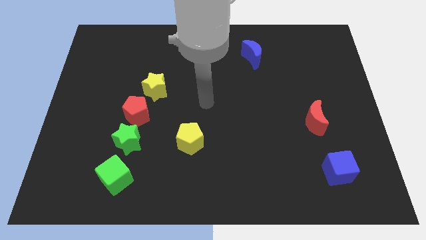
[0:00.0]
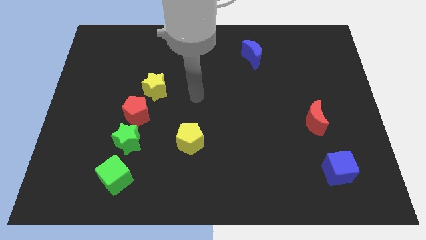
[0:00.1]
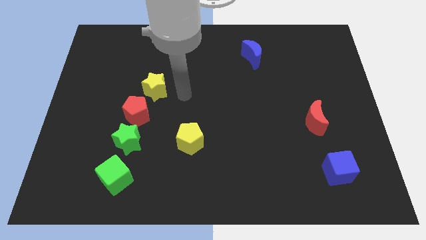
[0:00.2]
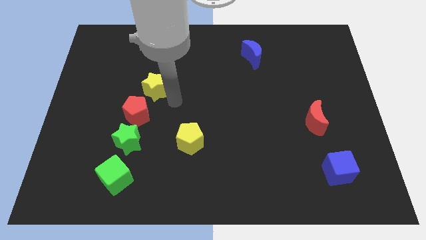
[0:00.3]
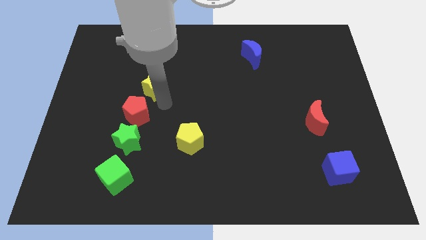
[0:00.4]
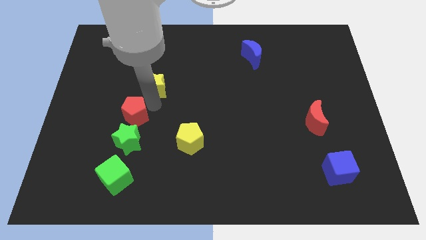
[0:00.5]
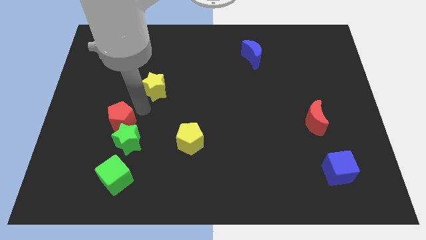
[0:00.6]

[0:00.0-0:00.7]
pull the yellow star apart from the red pentagon

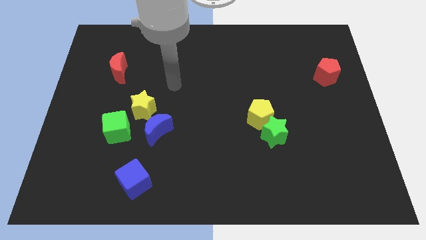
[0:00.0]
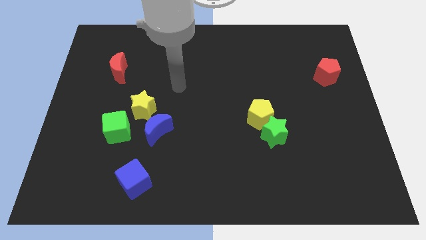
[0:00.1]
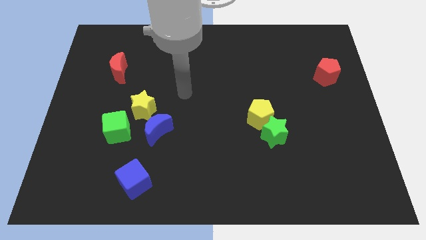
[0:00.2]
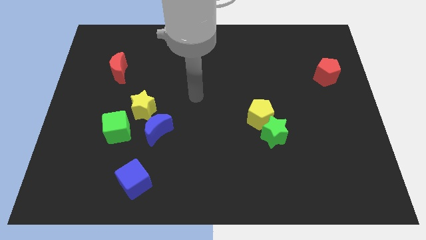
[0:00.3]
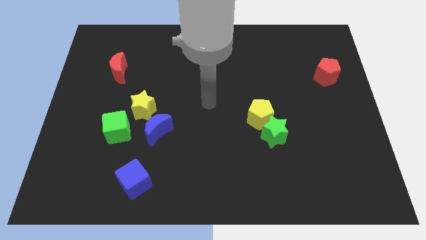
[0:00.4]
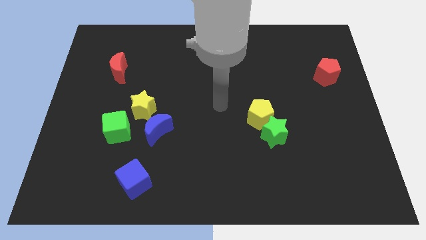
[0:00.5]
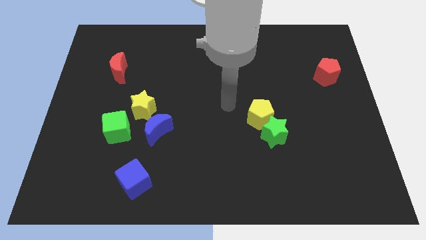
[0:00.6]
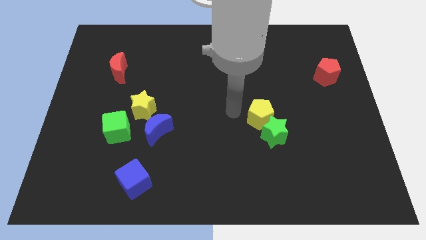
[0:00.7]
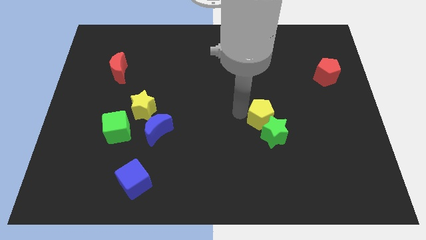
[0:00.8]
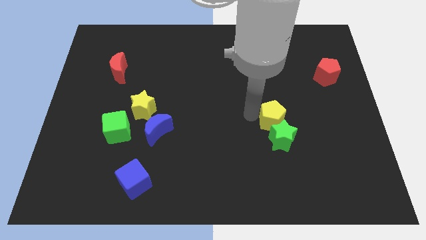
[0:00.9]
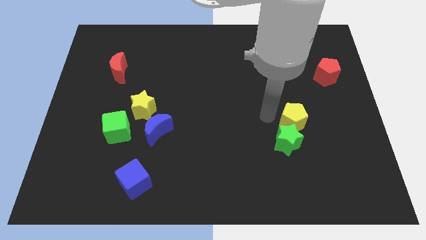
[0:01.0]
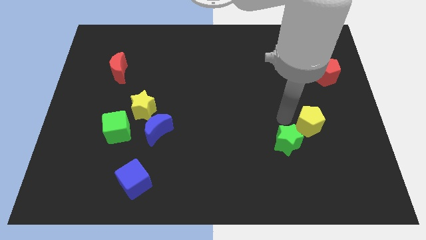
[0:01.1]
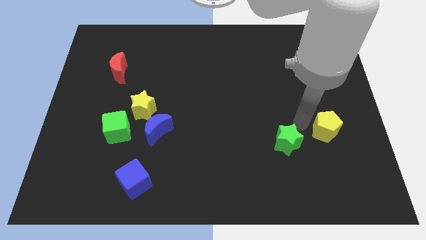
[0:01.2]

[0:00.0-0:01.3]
pull the green star apart from the yellow pentagon

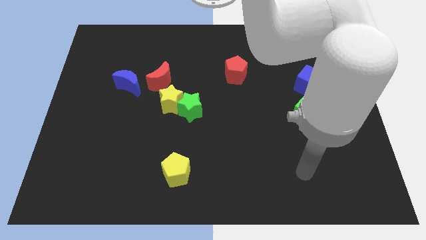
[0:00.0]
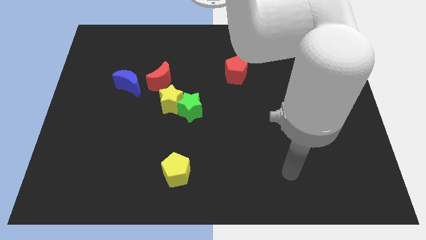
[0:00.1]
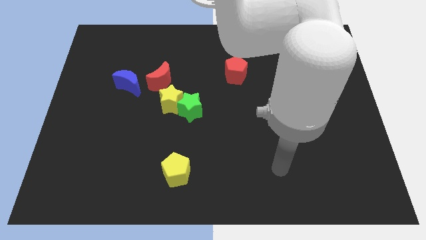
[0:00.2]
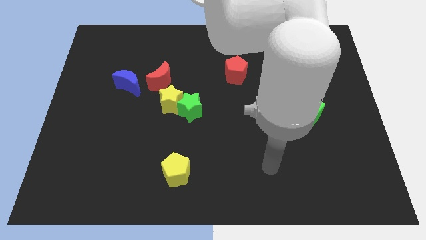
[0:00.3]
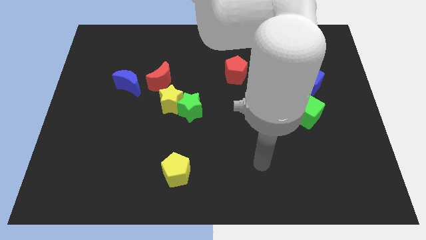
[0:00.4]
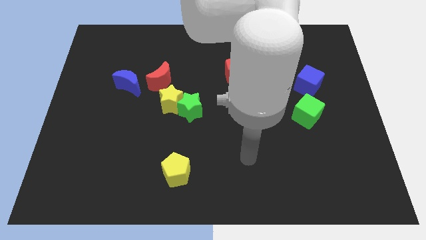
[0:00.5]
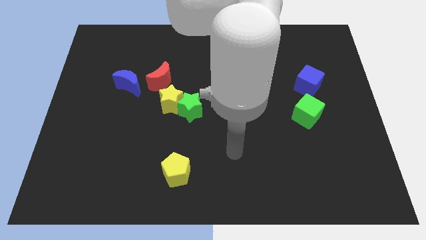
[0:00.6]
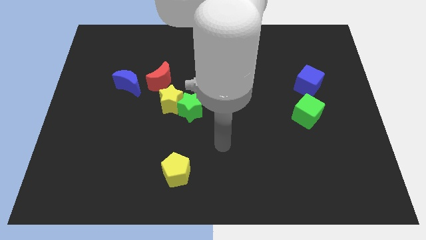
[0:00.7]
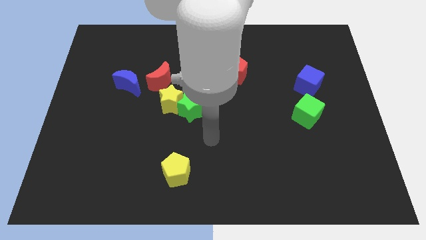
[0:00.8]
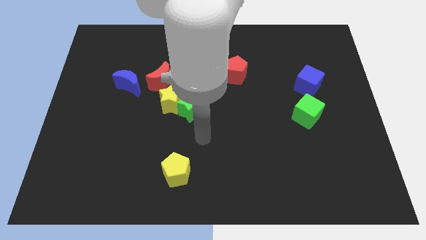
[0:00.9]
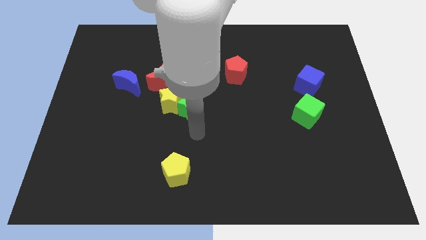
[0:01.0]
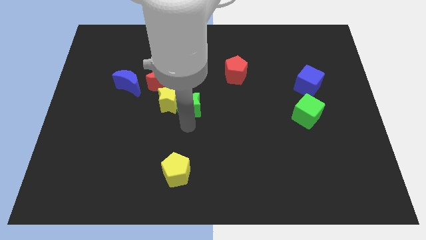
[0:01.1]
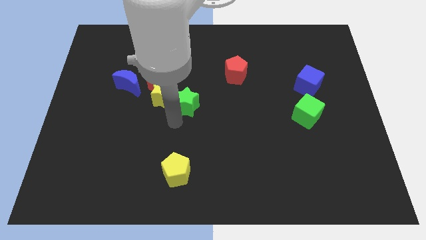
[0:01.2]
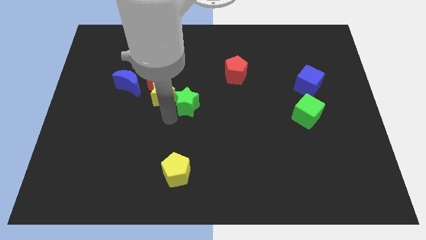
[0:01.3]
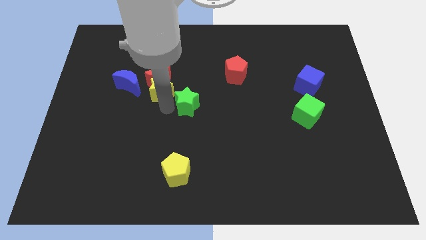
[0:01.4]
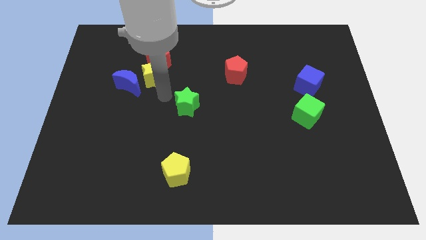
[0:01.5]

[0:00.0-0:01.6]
separate the green star from the yellow star

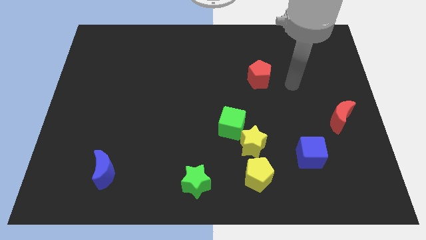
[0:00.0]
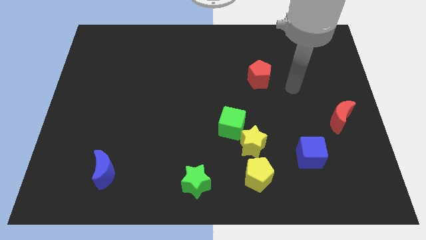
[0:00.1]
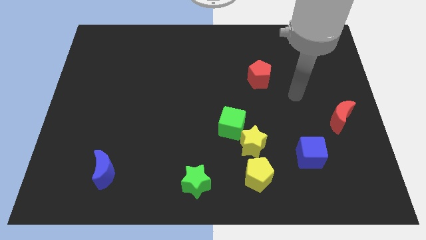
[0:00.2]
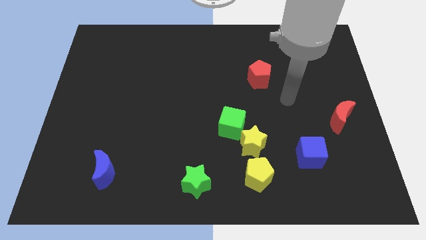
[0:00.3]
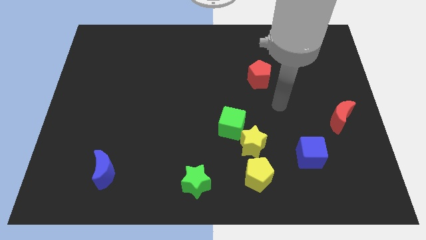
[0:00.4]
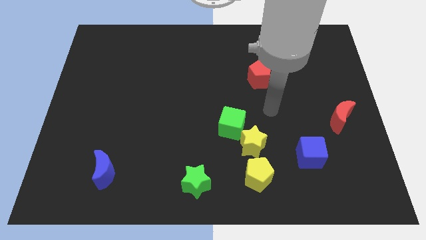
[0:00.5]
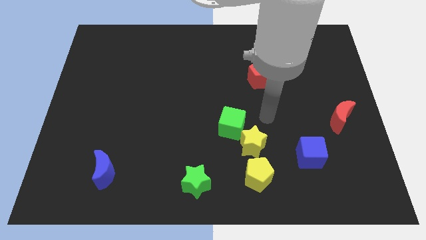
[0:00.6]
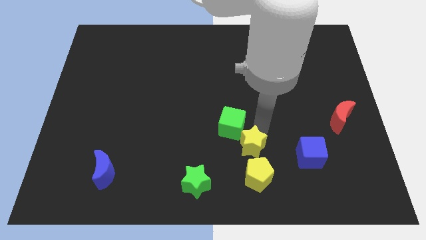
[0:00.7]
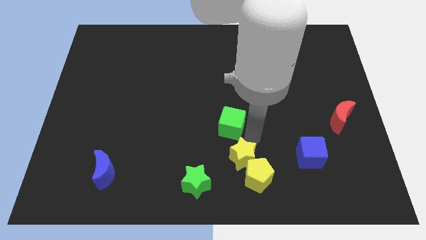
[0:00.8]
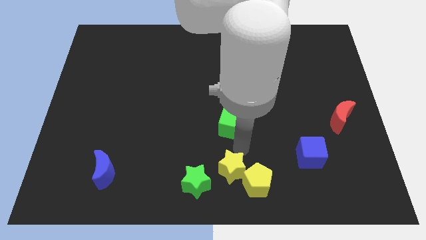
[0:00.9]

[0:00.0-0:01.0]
move the green cube away from the yellow star

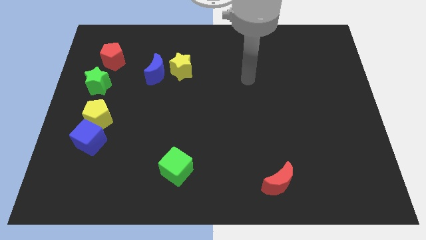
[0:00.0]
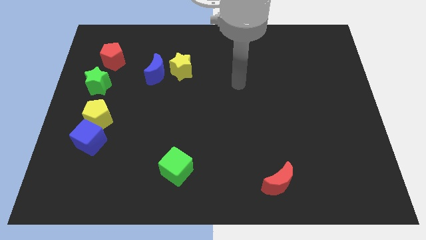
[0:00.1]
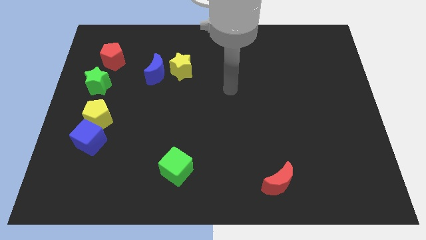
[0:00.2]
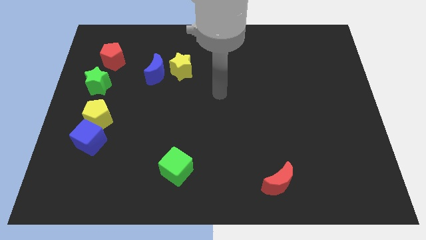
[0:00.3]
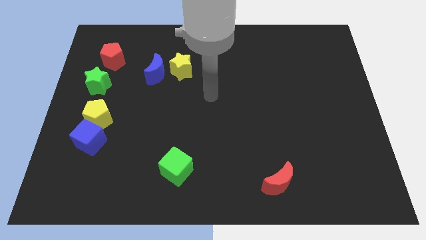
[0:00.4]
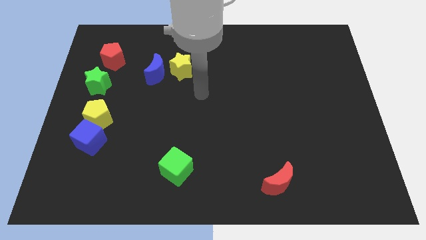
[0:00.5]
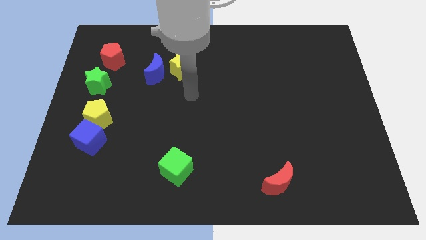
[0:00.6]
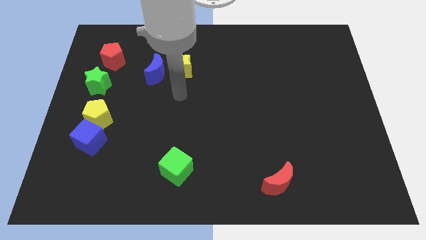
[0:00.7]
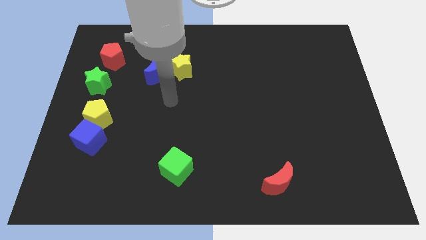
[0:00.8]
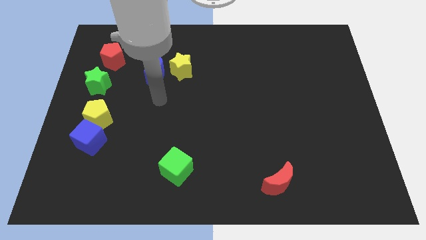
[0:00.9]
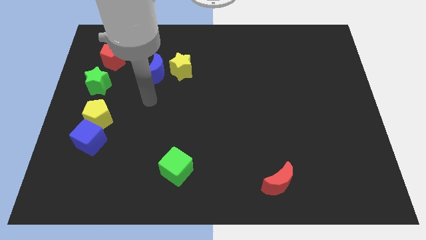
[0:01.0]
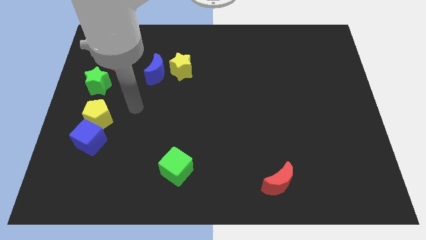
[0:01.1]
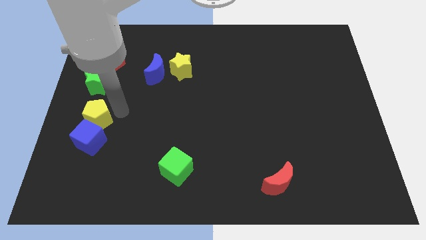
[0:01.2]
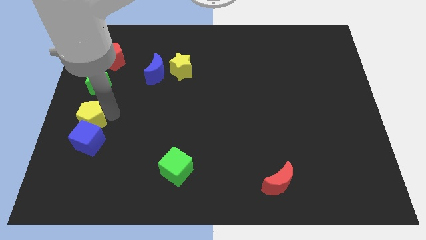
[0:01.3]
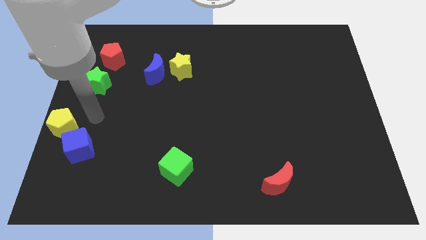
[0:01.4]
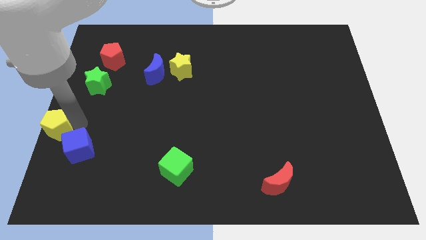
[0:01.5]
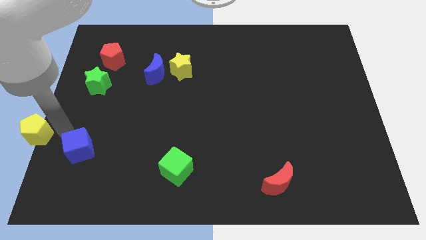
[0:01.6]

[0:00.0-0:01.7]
pull the blue cube apart from the yellow pentagon

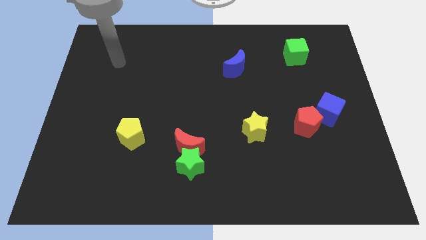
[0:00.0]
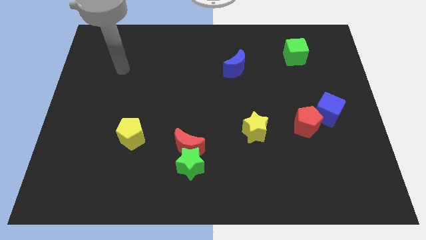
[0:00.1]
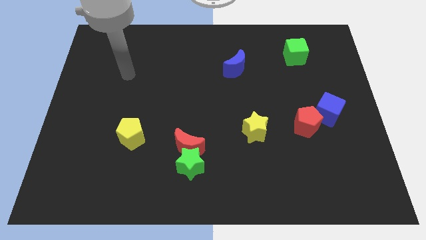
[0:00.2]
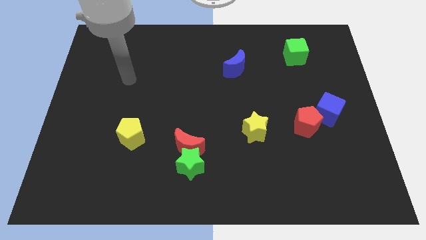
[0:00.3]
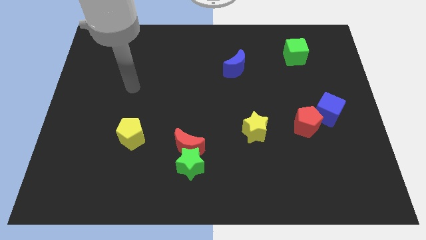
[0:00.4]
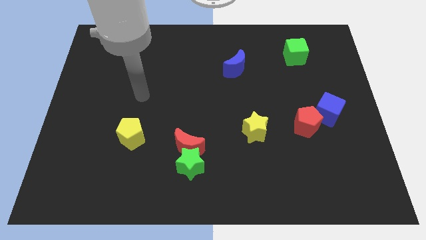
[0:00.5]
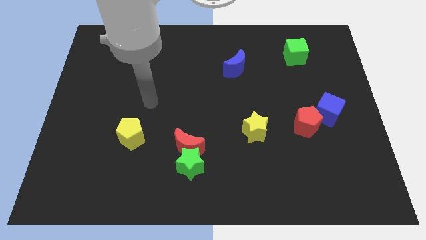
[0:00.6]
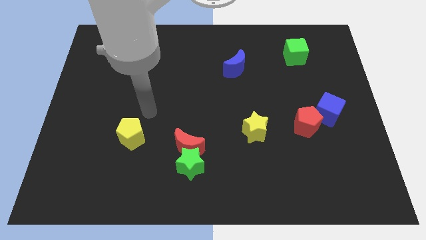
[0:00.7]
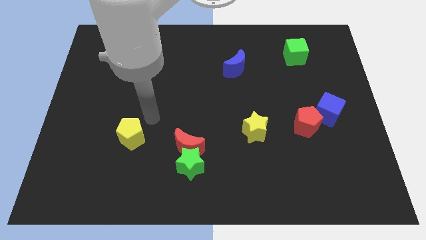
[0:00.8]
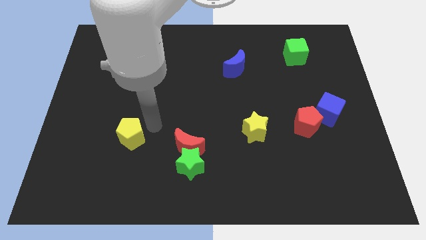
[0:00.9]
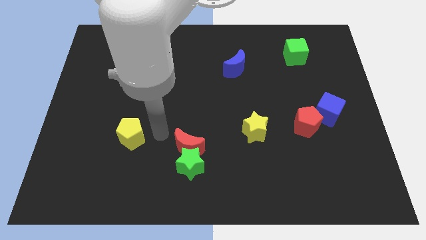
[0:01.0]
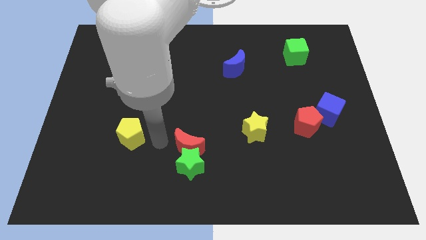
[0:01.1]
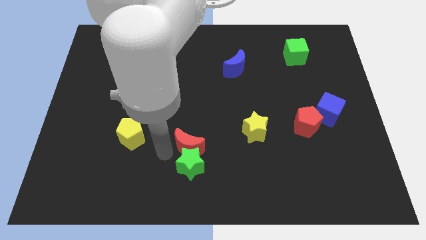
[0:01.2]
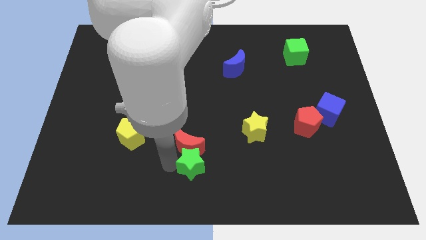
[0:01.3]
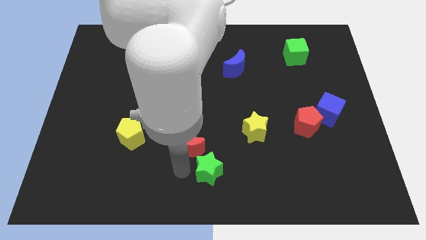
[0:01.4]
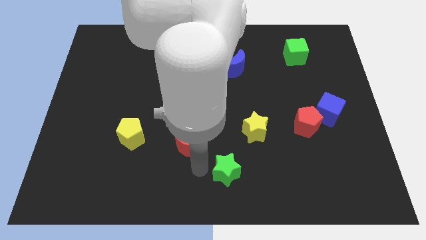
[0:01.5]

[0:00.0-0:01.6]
separate the red moon from the green star

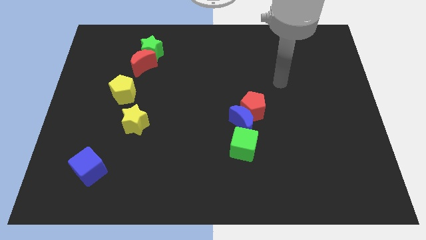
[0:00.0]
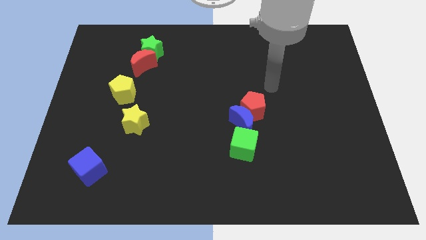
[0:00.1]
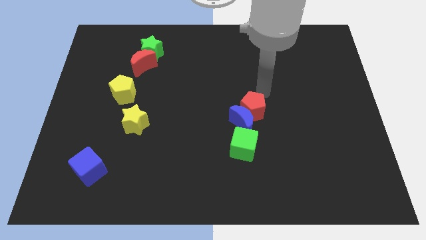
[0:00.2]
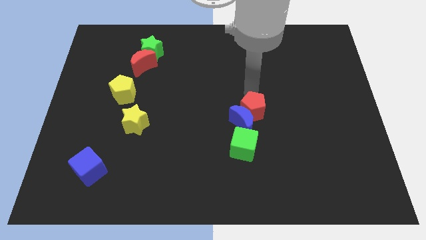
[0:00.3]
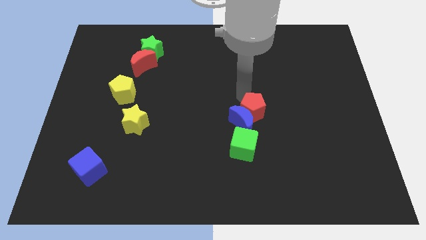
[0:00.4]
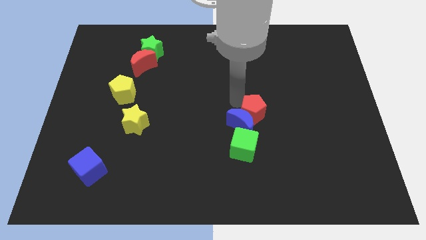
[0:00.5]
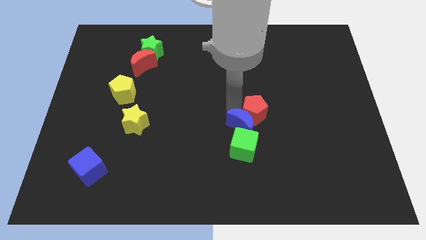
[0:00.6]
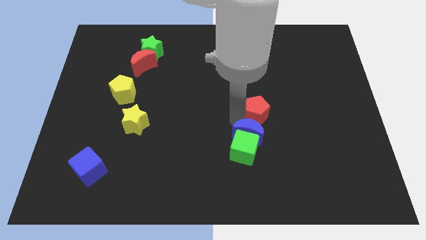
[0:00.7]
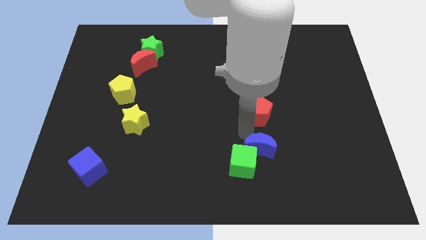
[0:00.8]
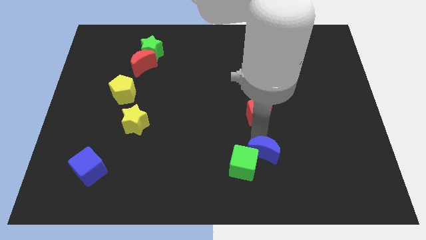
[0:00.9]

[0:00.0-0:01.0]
move the red pentagon away from the blue moon

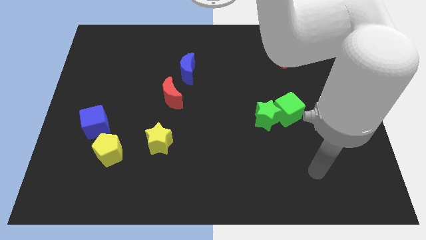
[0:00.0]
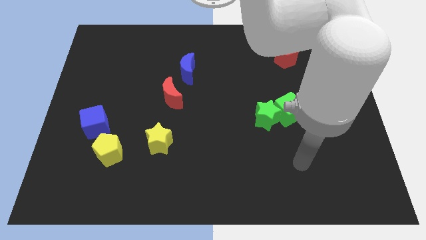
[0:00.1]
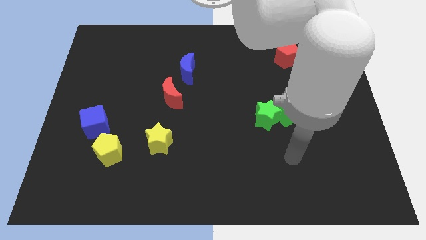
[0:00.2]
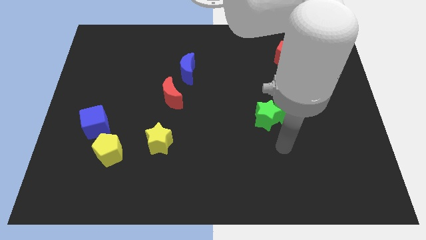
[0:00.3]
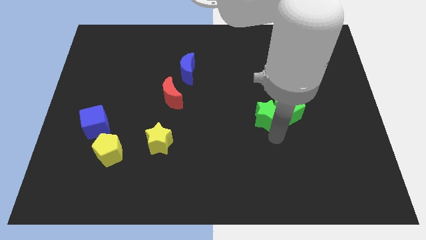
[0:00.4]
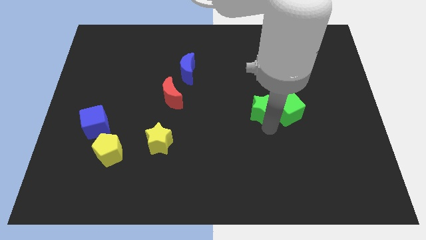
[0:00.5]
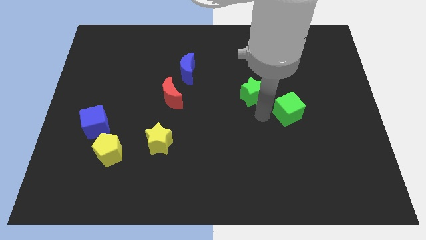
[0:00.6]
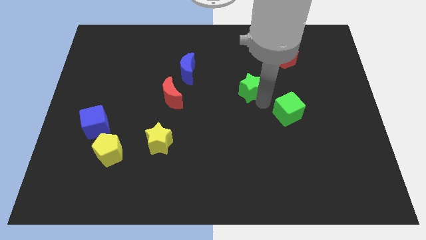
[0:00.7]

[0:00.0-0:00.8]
pull the green cube apart from the green star
